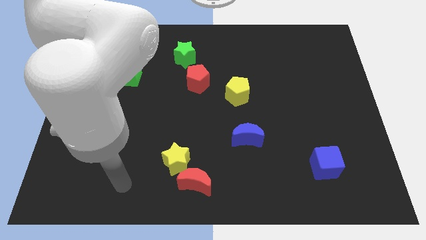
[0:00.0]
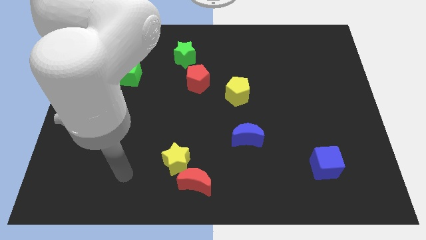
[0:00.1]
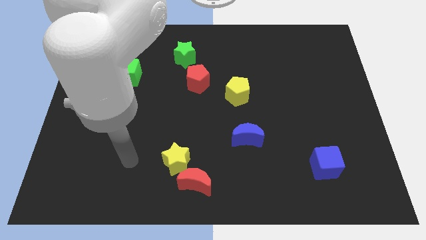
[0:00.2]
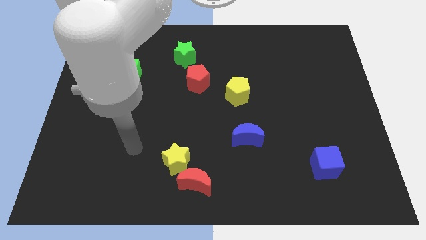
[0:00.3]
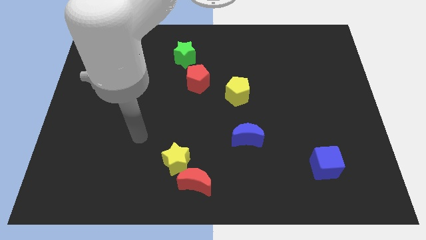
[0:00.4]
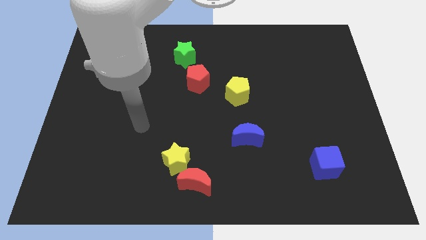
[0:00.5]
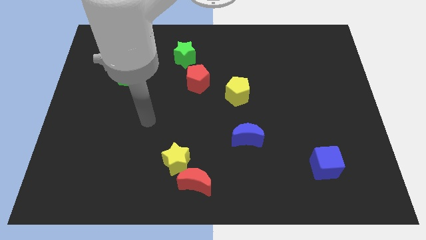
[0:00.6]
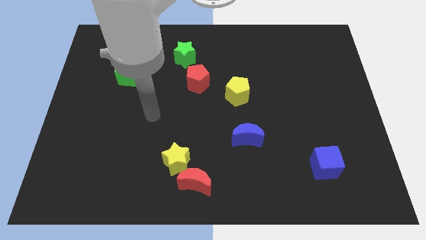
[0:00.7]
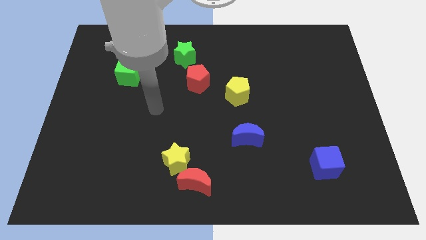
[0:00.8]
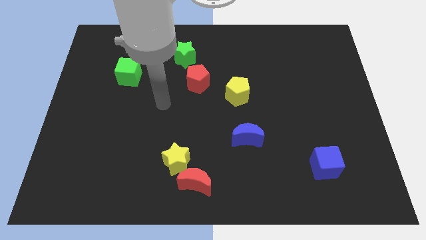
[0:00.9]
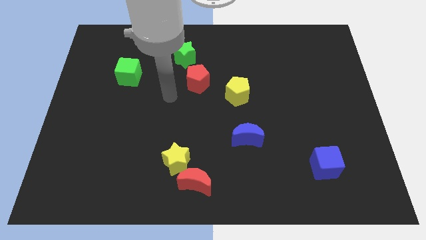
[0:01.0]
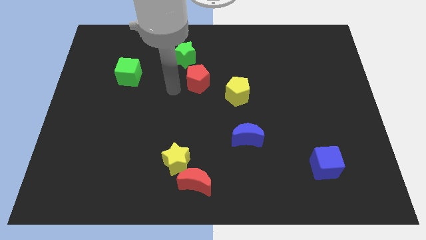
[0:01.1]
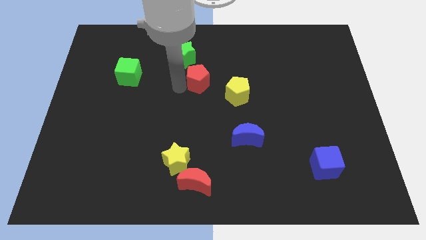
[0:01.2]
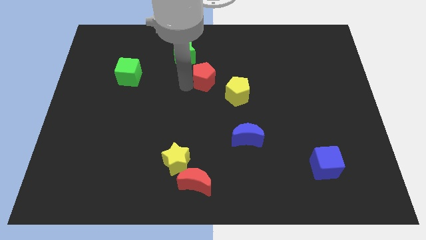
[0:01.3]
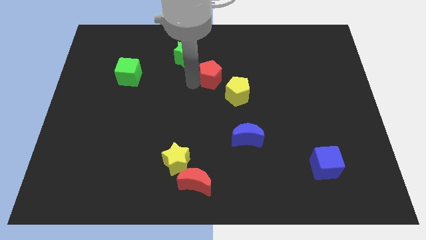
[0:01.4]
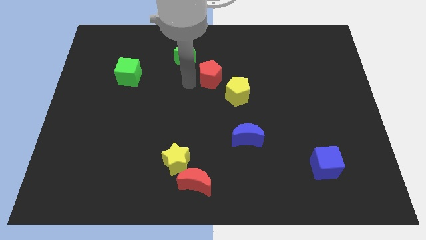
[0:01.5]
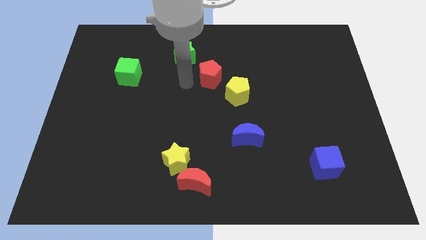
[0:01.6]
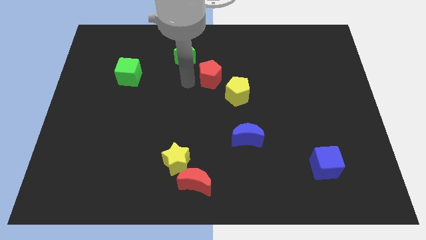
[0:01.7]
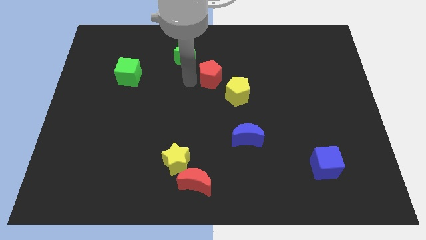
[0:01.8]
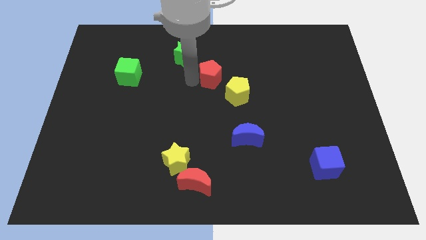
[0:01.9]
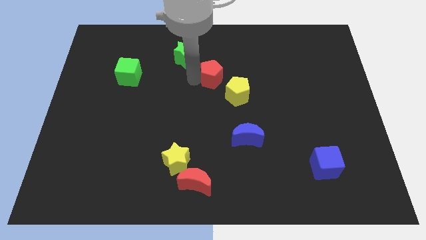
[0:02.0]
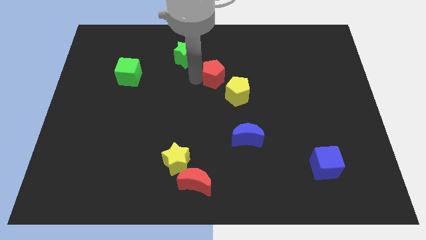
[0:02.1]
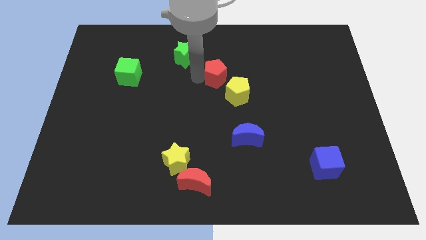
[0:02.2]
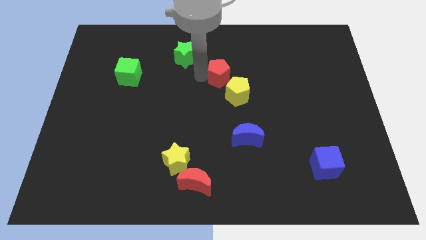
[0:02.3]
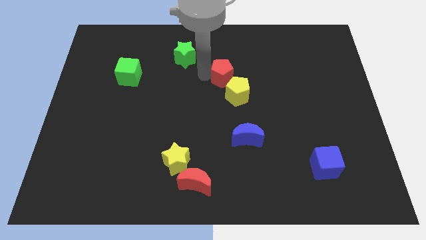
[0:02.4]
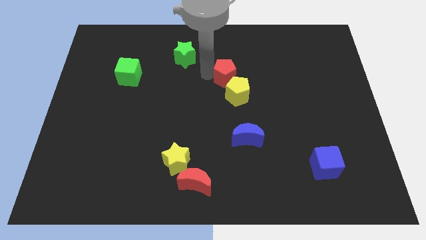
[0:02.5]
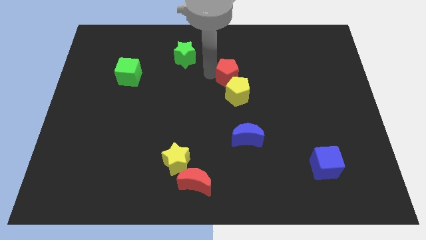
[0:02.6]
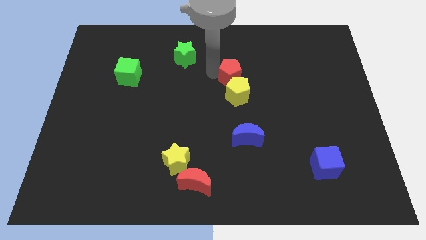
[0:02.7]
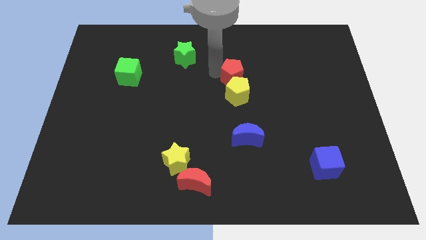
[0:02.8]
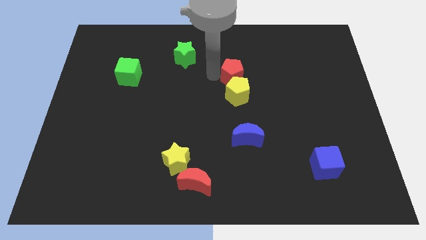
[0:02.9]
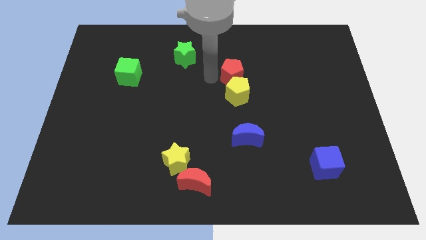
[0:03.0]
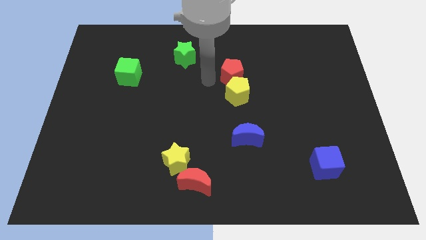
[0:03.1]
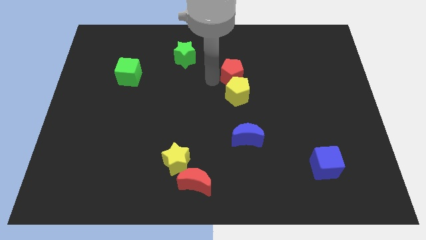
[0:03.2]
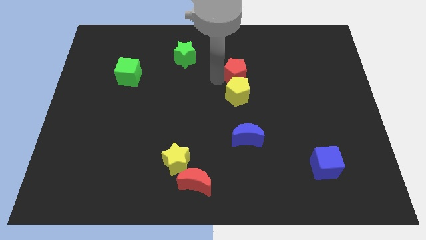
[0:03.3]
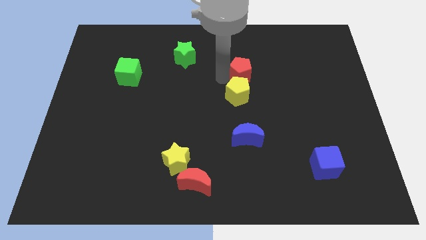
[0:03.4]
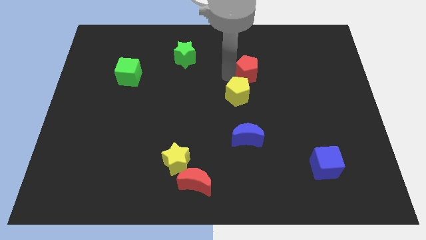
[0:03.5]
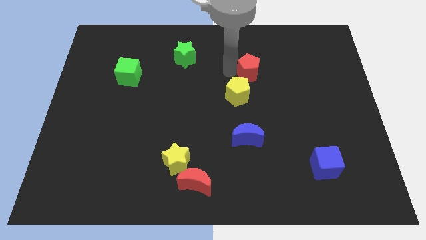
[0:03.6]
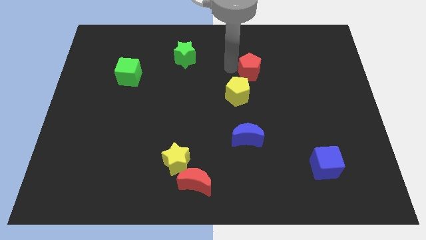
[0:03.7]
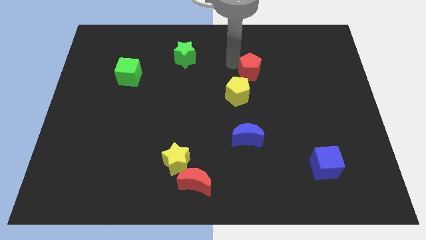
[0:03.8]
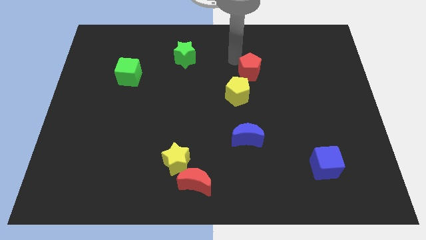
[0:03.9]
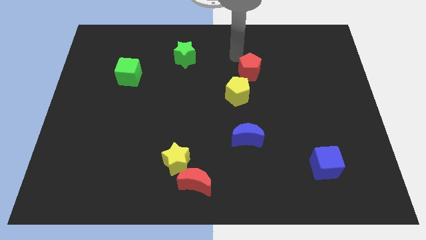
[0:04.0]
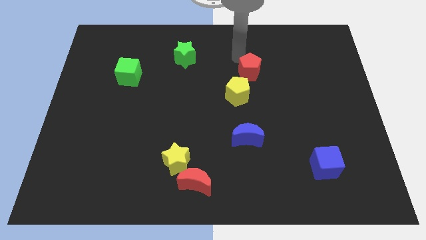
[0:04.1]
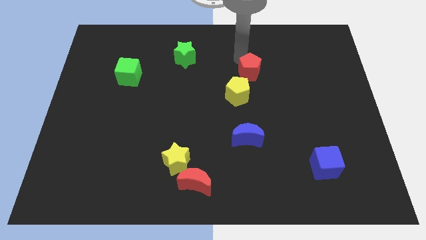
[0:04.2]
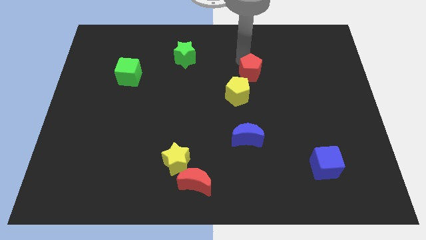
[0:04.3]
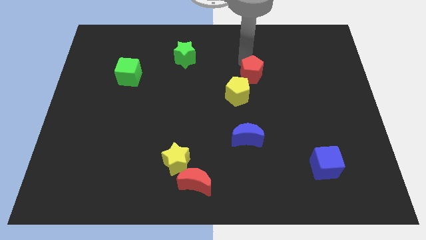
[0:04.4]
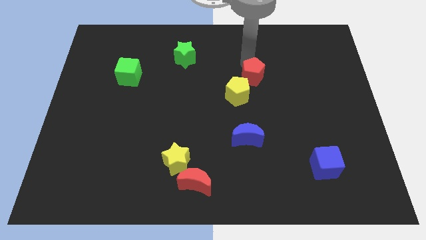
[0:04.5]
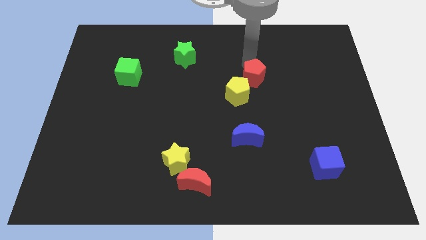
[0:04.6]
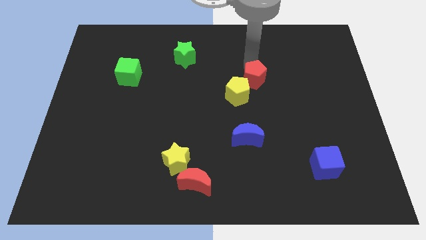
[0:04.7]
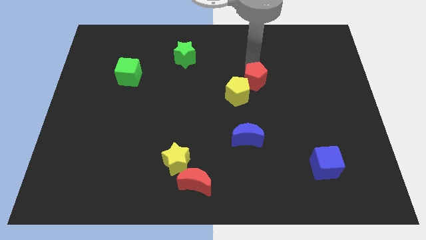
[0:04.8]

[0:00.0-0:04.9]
move the red pentagon to the right of the yellow pentagon

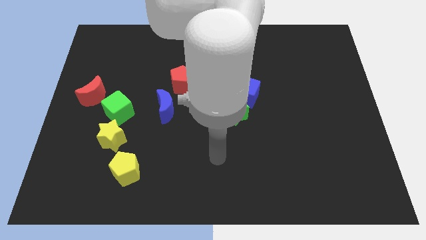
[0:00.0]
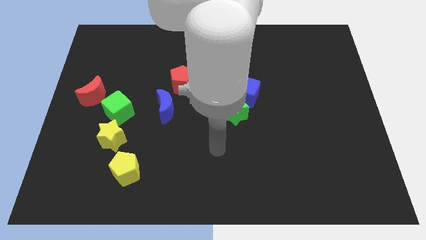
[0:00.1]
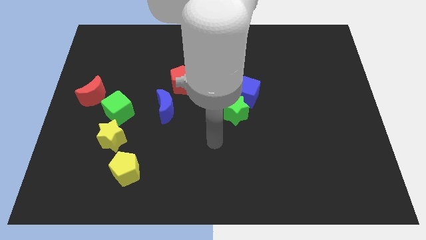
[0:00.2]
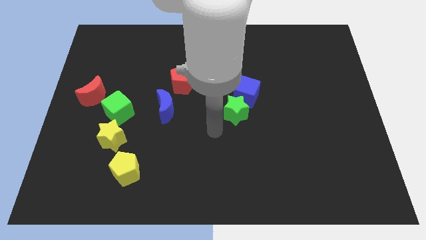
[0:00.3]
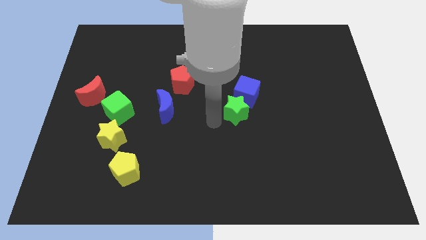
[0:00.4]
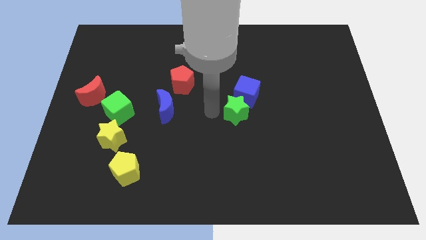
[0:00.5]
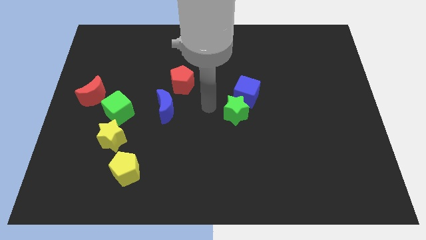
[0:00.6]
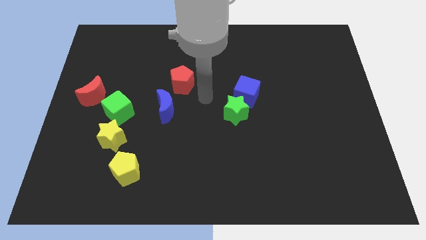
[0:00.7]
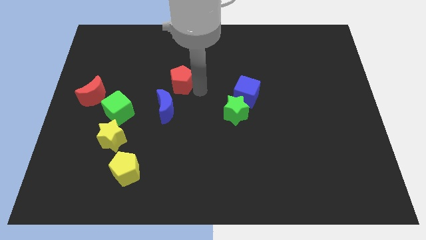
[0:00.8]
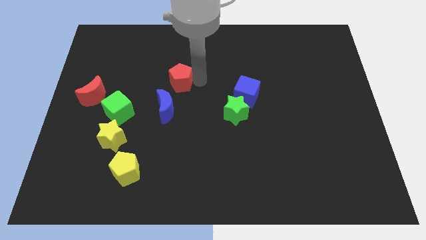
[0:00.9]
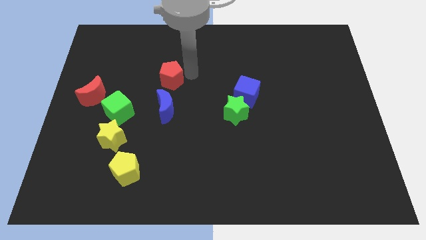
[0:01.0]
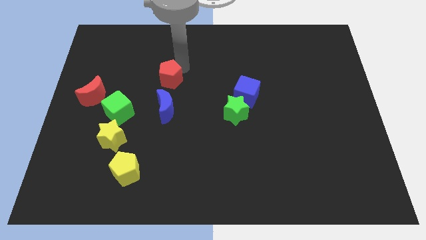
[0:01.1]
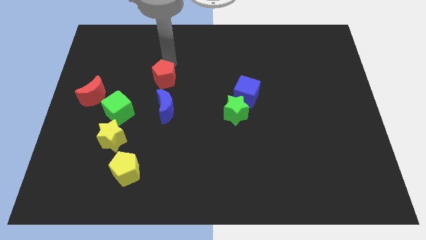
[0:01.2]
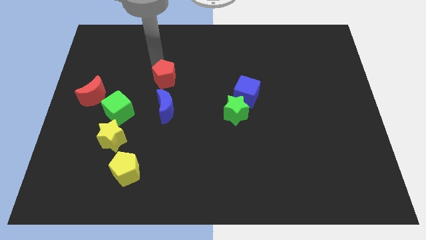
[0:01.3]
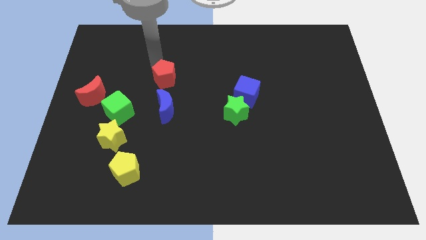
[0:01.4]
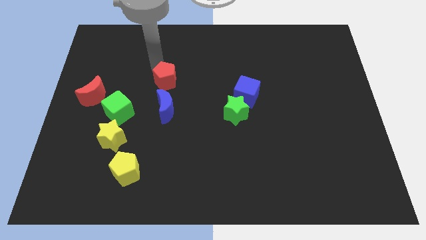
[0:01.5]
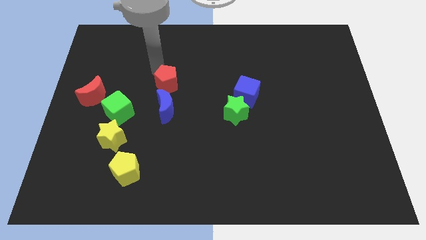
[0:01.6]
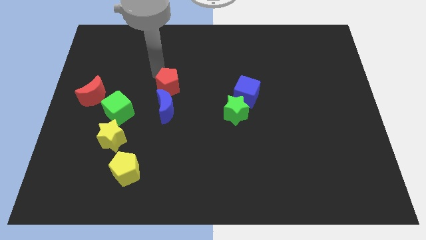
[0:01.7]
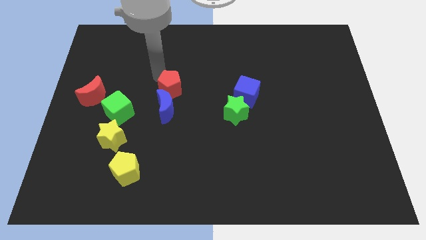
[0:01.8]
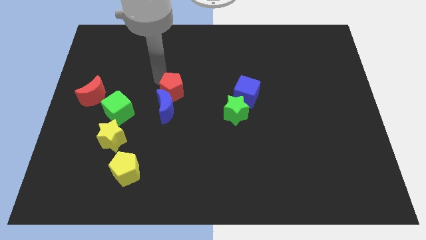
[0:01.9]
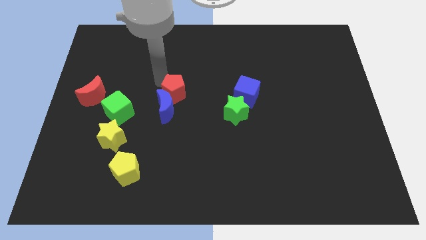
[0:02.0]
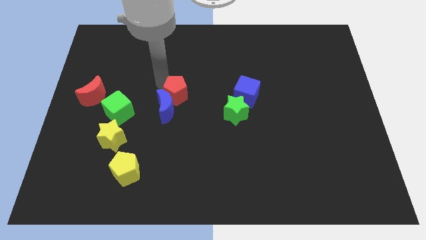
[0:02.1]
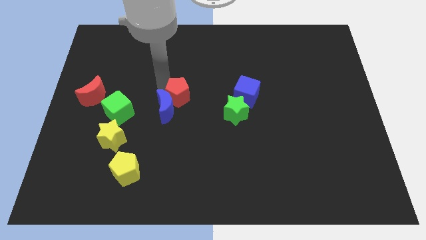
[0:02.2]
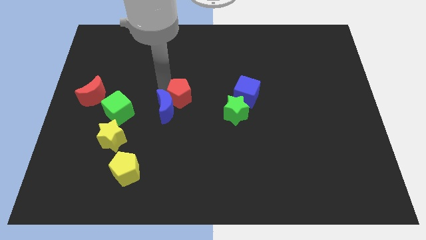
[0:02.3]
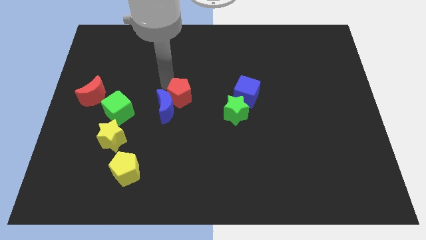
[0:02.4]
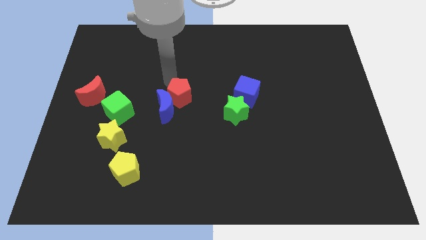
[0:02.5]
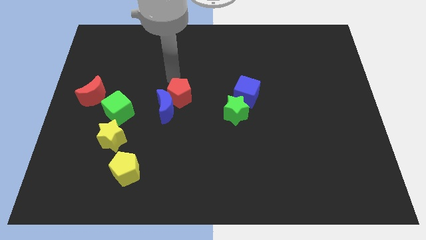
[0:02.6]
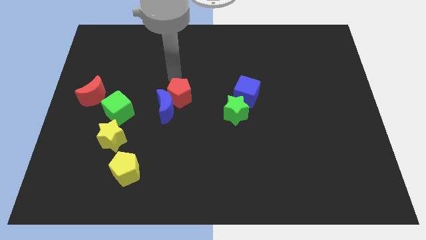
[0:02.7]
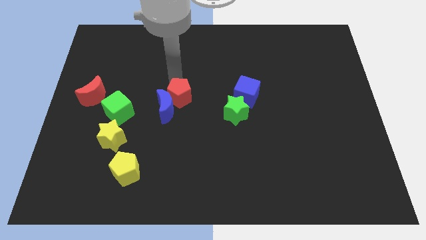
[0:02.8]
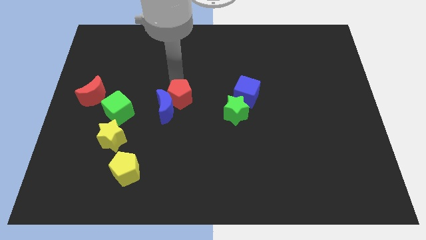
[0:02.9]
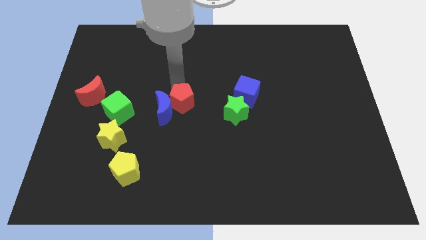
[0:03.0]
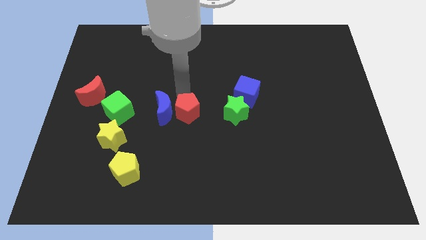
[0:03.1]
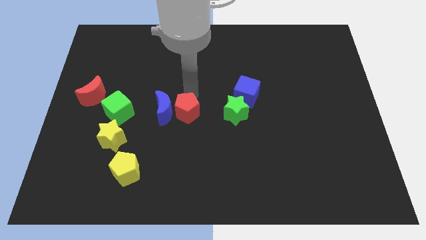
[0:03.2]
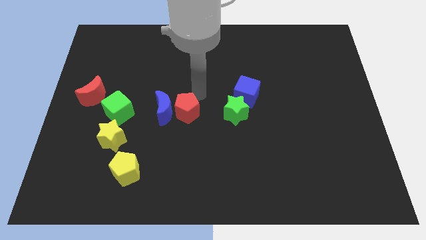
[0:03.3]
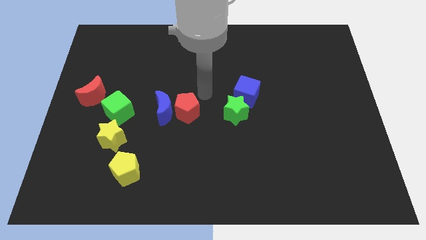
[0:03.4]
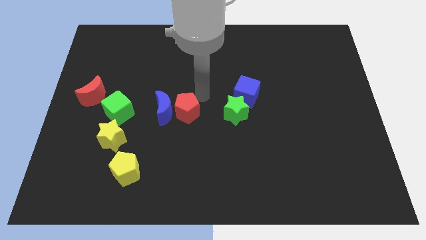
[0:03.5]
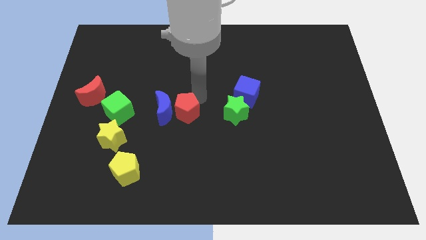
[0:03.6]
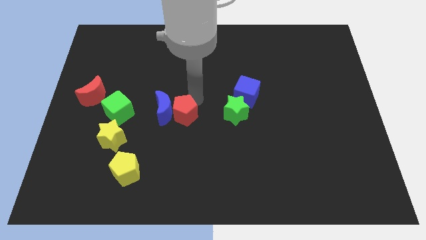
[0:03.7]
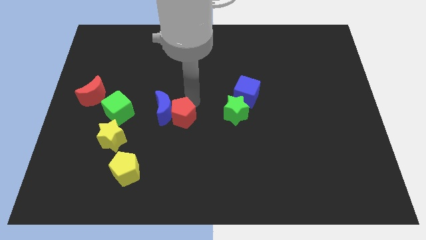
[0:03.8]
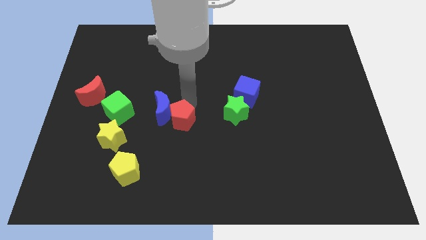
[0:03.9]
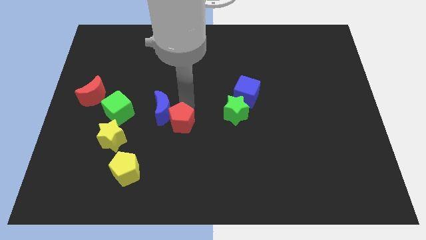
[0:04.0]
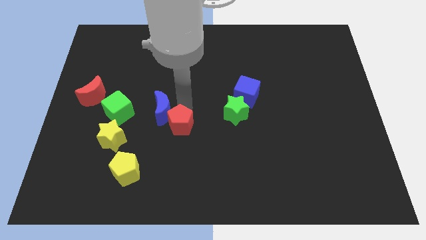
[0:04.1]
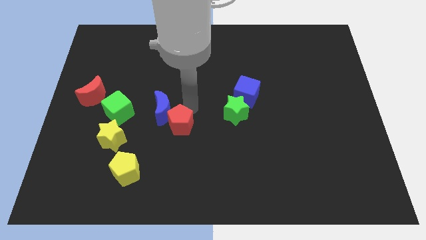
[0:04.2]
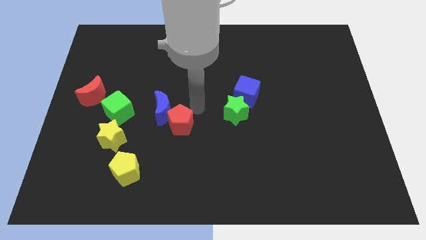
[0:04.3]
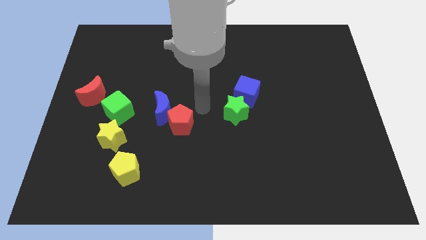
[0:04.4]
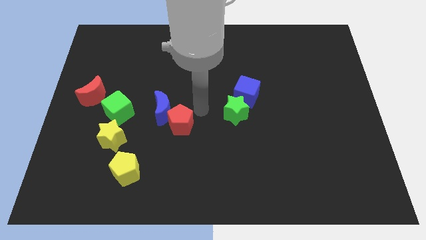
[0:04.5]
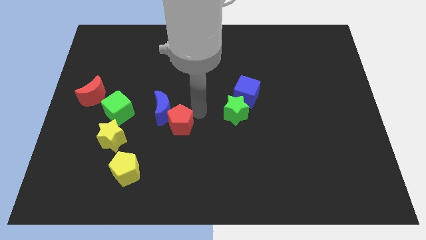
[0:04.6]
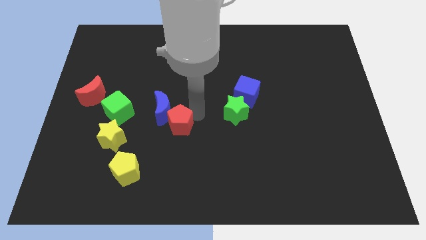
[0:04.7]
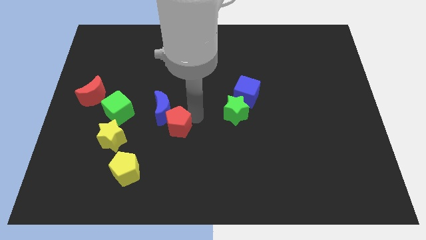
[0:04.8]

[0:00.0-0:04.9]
push the red pentagon just right of the yellow star
